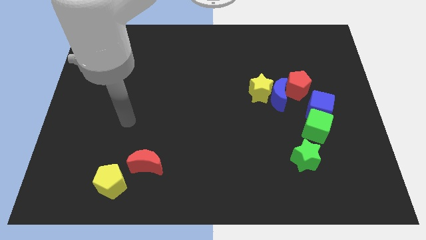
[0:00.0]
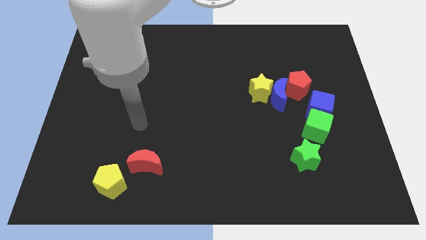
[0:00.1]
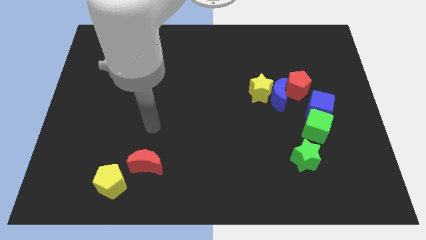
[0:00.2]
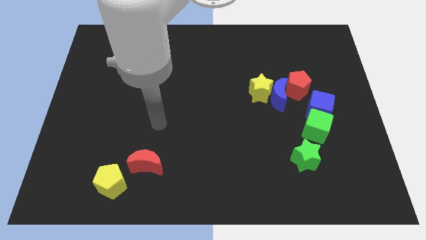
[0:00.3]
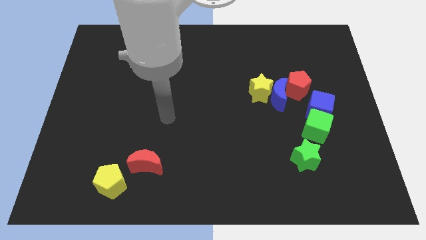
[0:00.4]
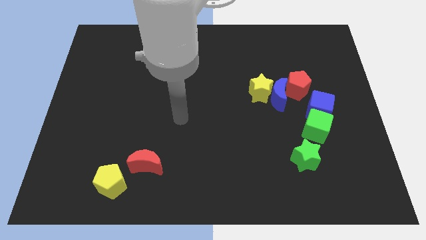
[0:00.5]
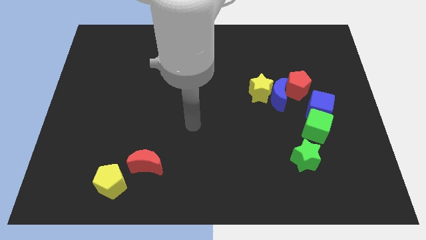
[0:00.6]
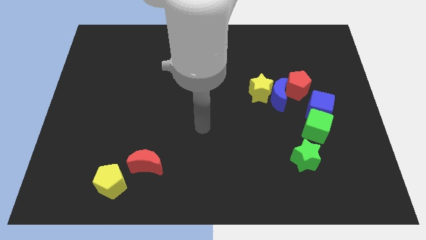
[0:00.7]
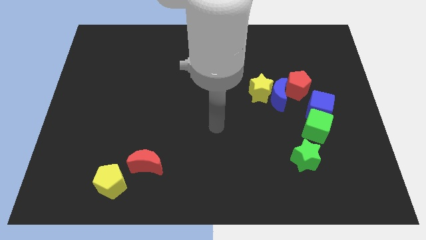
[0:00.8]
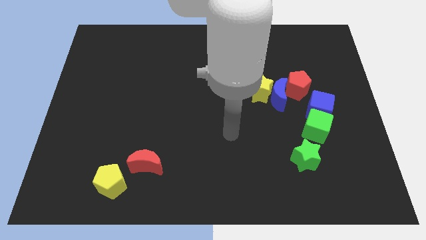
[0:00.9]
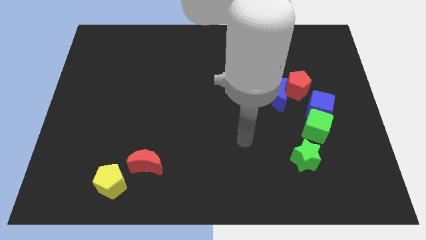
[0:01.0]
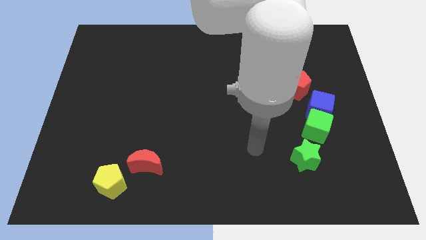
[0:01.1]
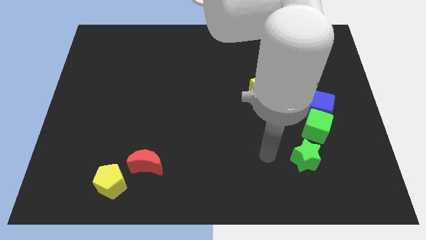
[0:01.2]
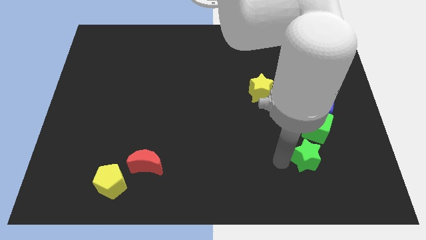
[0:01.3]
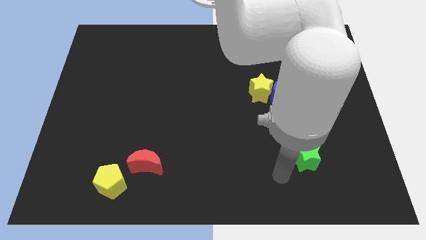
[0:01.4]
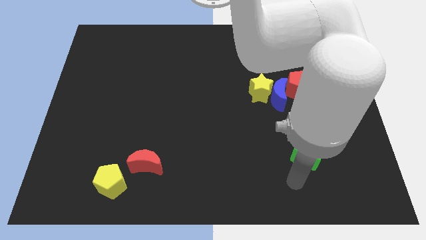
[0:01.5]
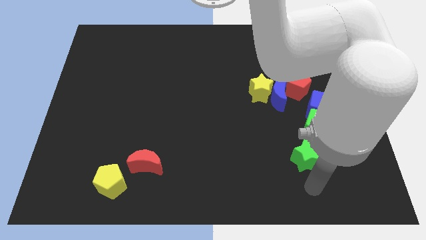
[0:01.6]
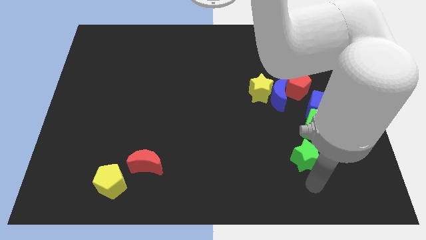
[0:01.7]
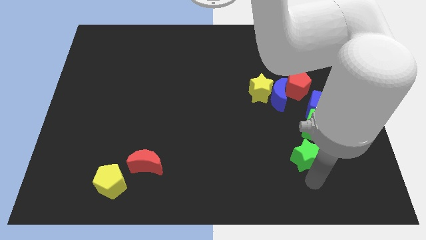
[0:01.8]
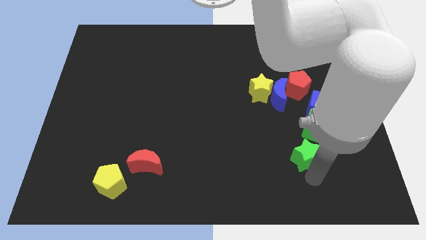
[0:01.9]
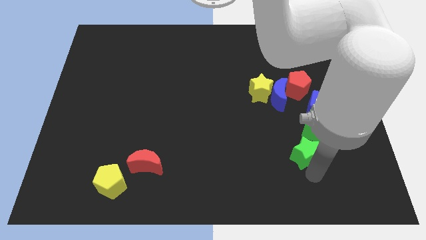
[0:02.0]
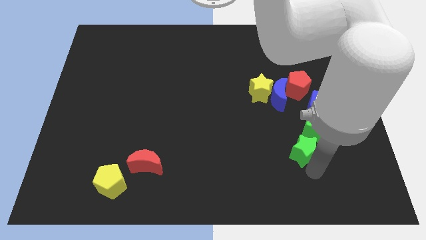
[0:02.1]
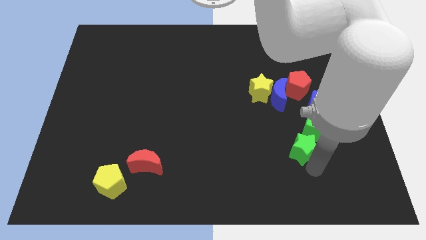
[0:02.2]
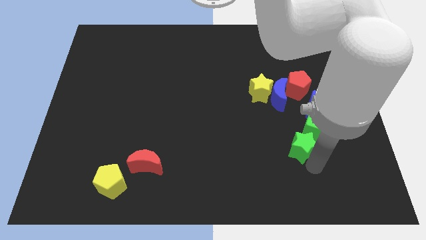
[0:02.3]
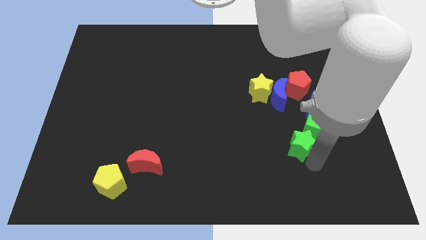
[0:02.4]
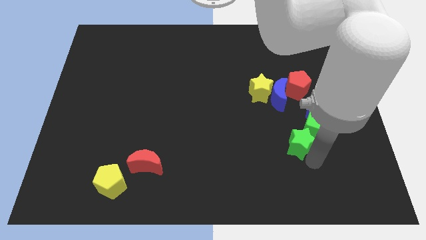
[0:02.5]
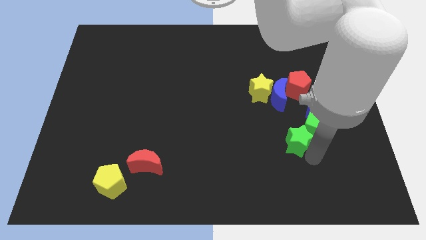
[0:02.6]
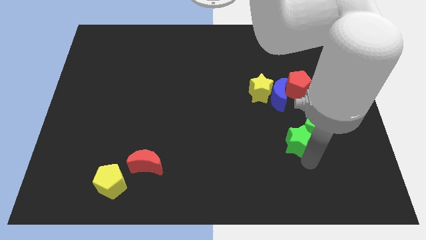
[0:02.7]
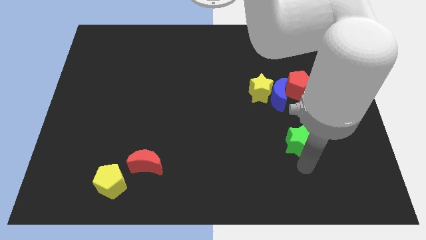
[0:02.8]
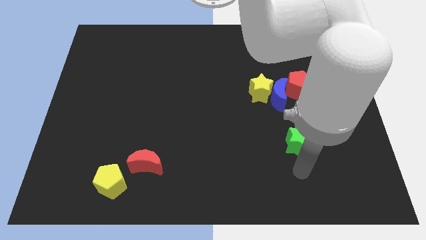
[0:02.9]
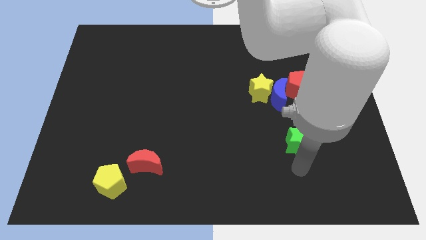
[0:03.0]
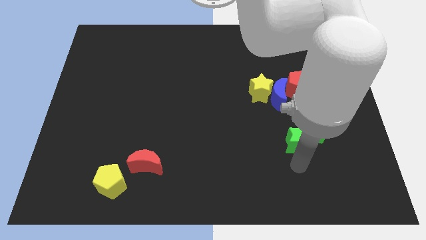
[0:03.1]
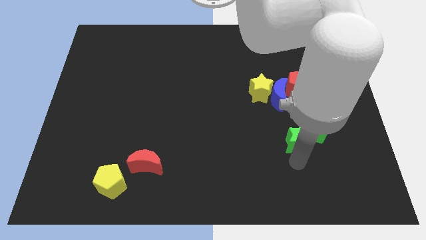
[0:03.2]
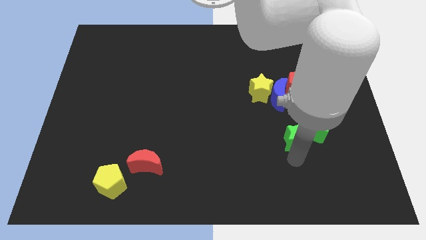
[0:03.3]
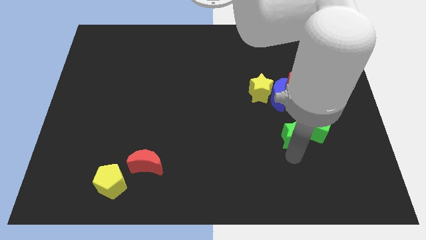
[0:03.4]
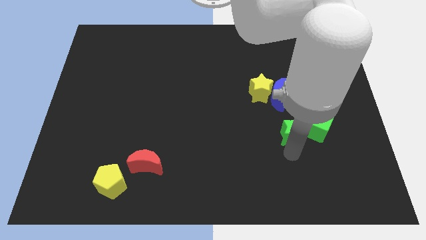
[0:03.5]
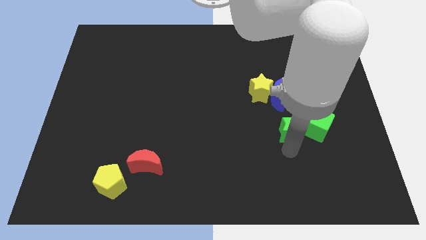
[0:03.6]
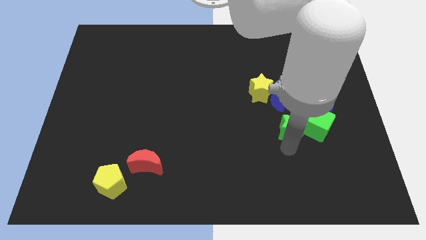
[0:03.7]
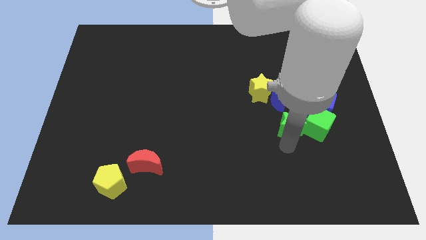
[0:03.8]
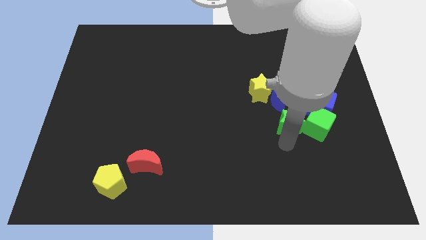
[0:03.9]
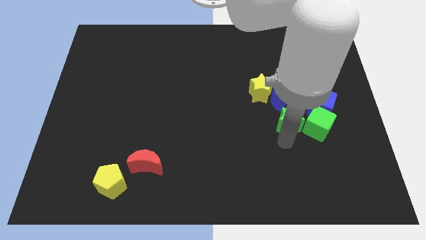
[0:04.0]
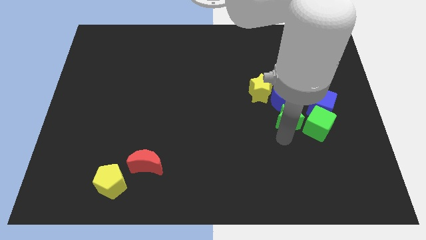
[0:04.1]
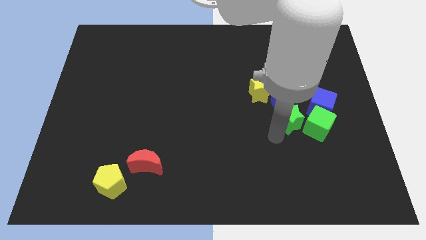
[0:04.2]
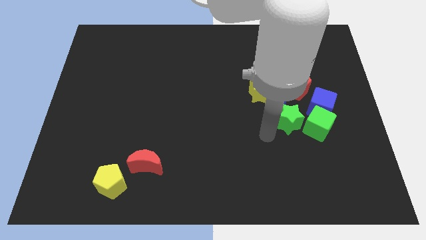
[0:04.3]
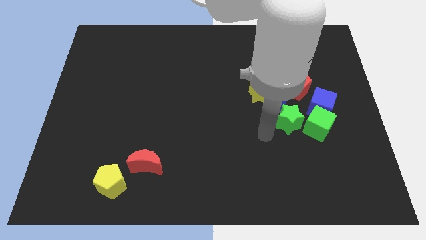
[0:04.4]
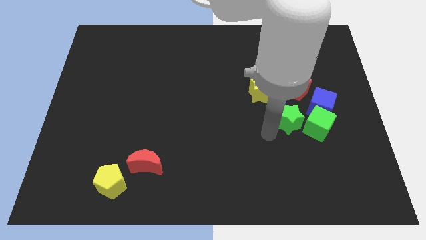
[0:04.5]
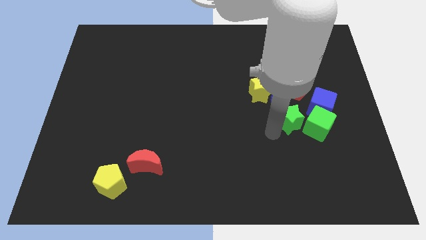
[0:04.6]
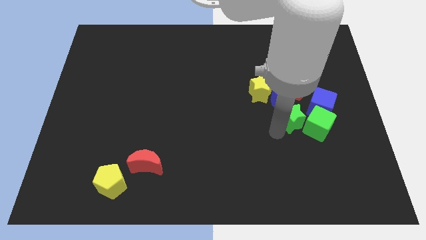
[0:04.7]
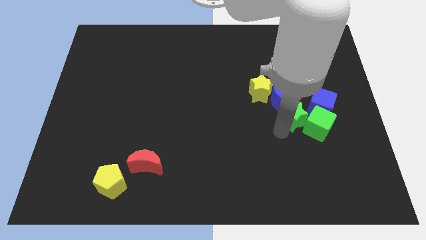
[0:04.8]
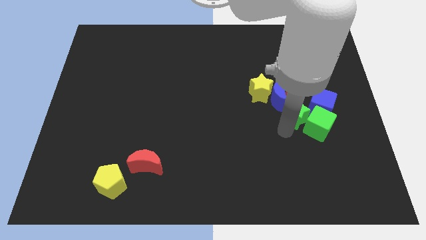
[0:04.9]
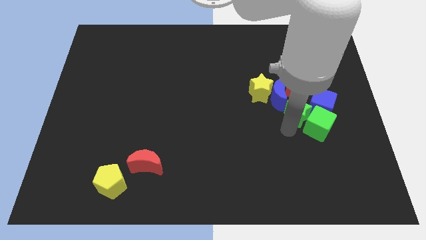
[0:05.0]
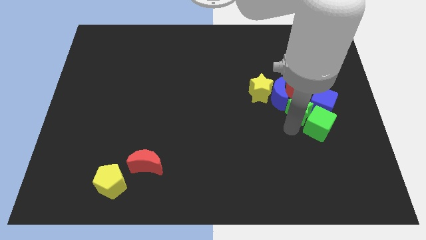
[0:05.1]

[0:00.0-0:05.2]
push the green star close to the blue cube

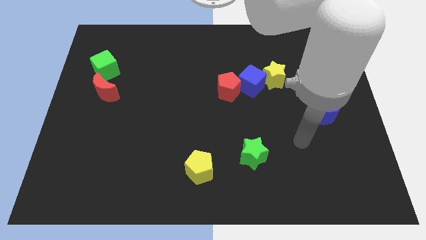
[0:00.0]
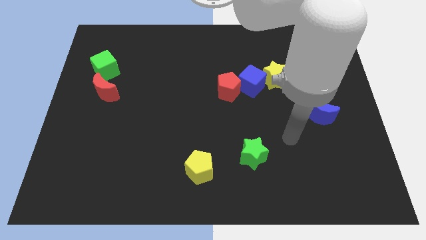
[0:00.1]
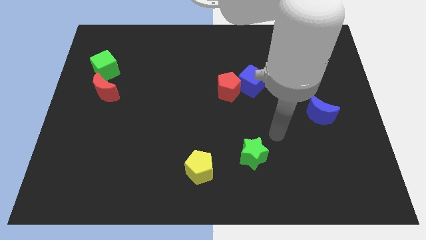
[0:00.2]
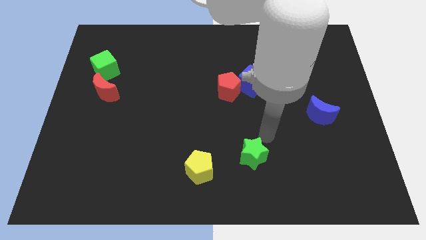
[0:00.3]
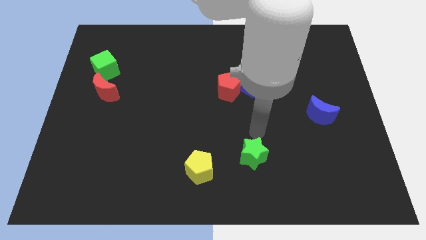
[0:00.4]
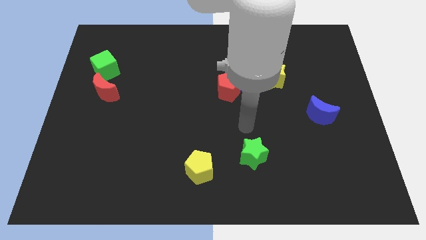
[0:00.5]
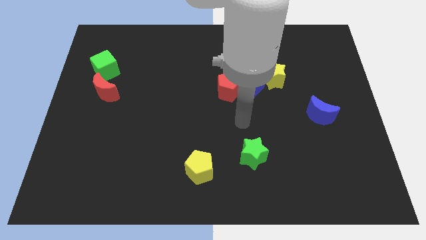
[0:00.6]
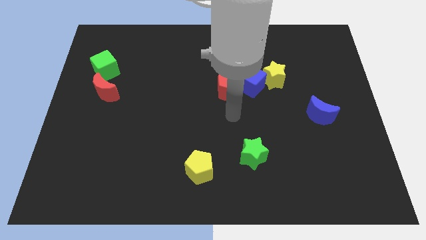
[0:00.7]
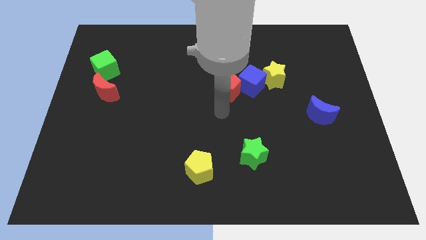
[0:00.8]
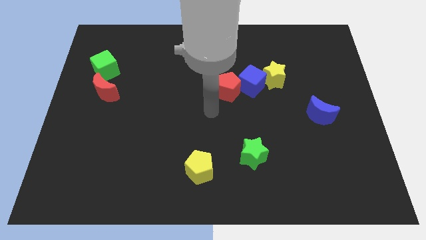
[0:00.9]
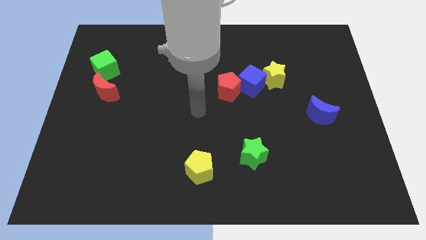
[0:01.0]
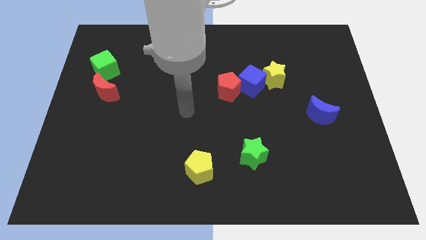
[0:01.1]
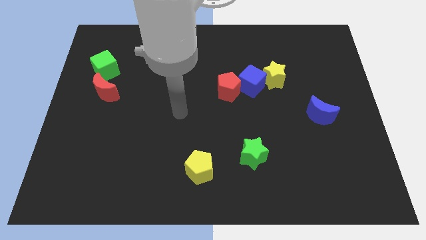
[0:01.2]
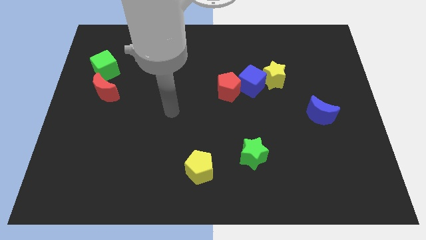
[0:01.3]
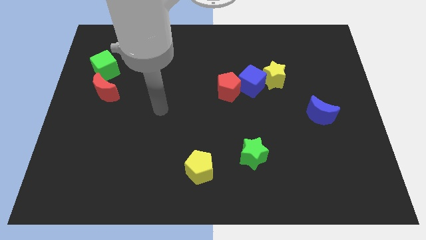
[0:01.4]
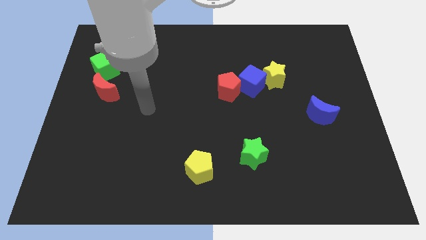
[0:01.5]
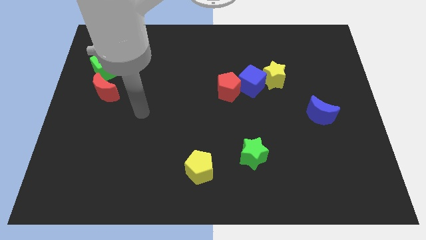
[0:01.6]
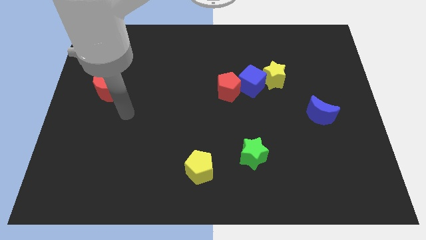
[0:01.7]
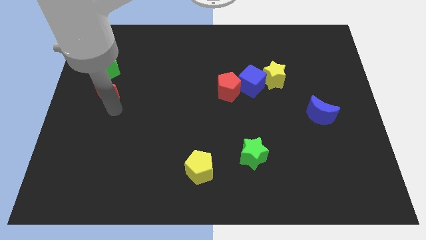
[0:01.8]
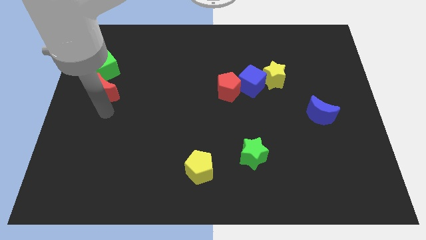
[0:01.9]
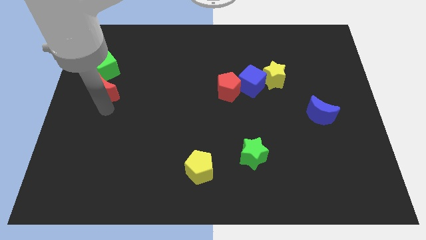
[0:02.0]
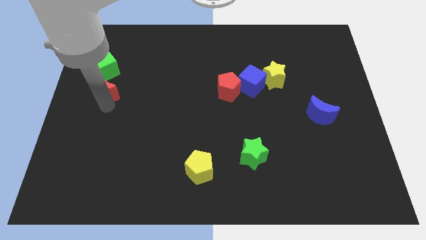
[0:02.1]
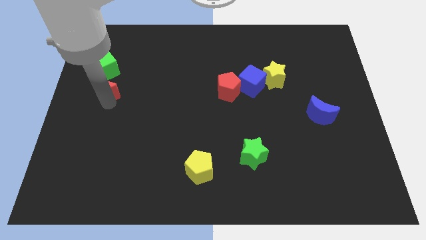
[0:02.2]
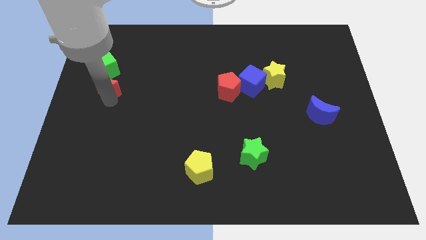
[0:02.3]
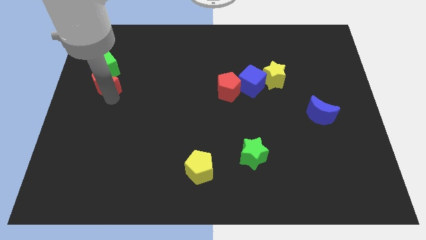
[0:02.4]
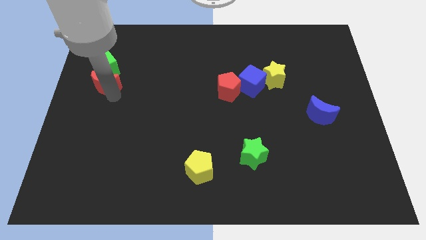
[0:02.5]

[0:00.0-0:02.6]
push the red moon next to the green cube

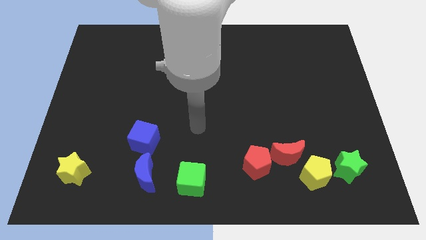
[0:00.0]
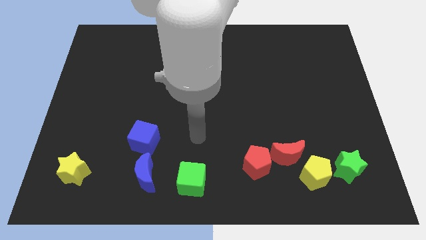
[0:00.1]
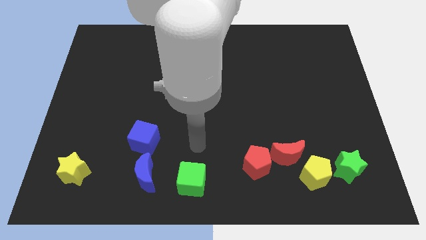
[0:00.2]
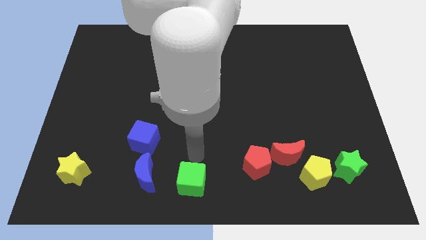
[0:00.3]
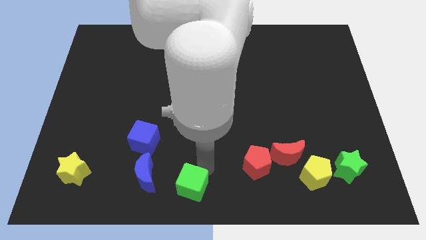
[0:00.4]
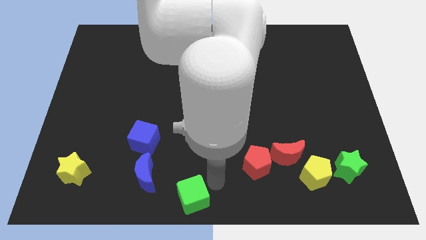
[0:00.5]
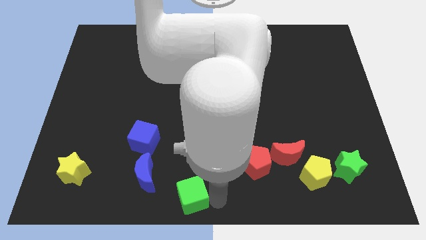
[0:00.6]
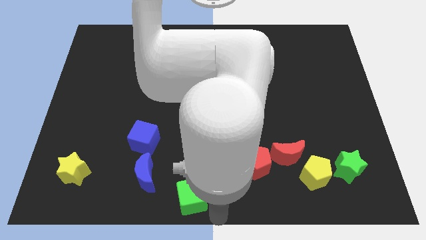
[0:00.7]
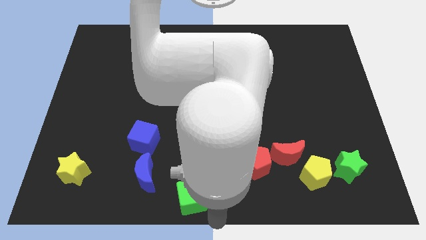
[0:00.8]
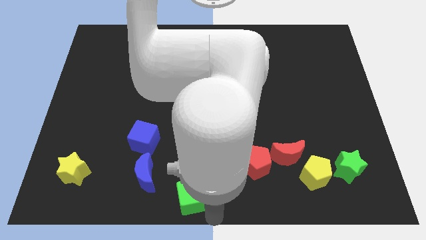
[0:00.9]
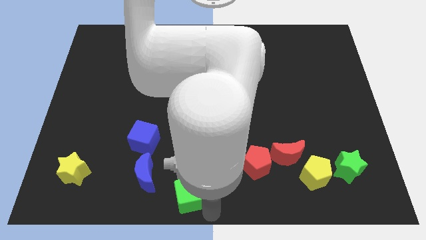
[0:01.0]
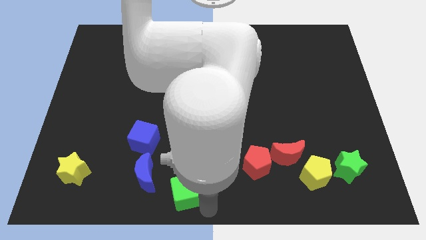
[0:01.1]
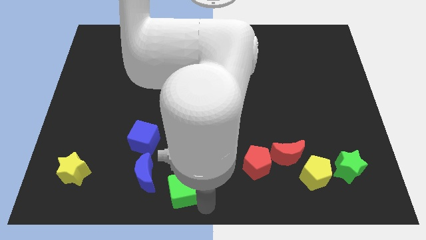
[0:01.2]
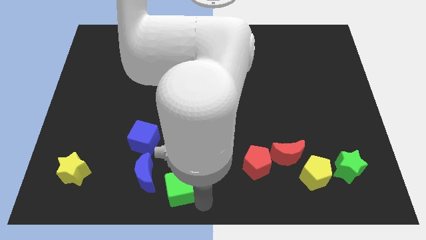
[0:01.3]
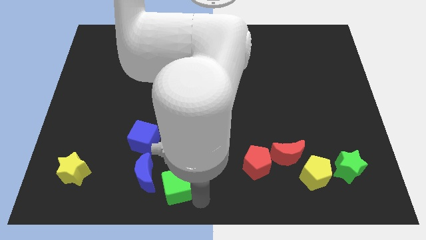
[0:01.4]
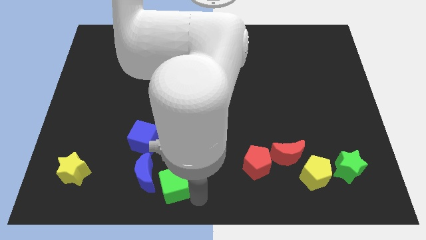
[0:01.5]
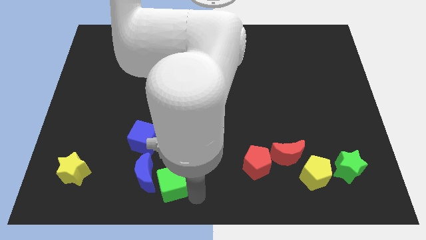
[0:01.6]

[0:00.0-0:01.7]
move the green cube close to the blue moon
